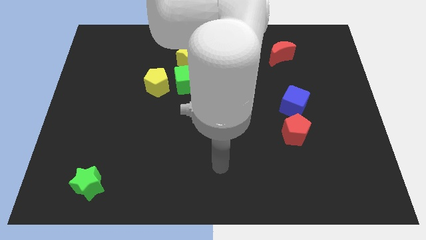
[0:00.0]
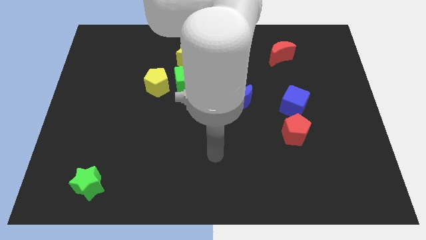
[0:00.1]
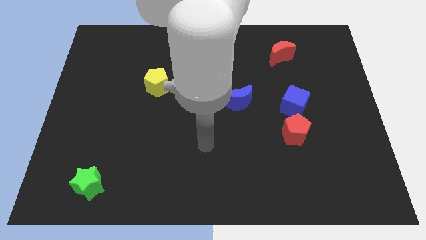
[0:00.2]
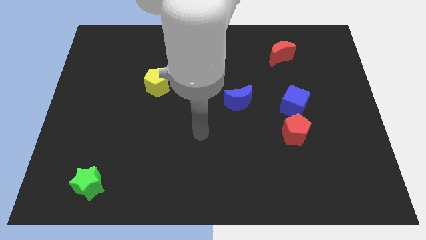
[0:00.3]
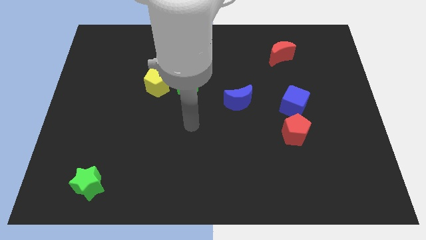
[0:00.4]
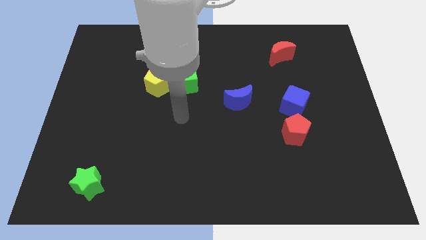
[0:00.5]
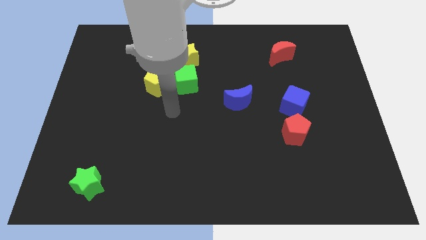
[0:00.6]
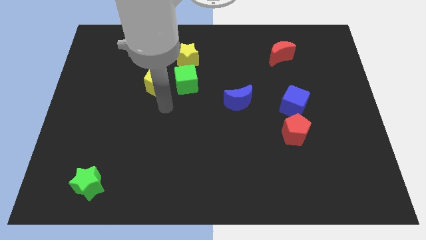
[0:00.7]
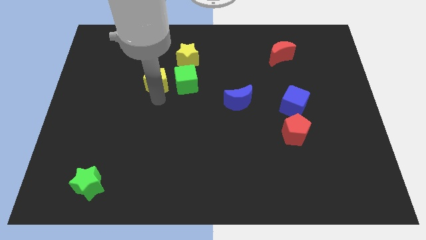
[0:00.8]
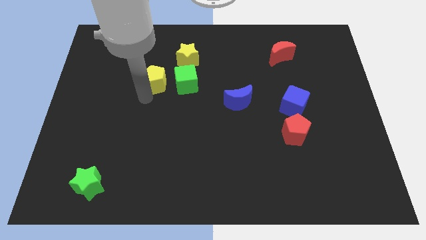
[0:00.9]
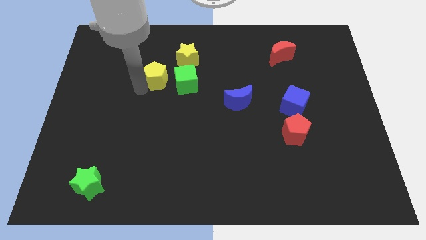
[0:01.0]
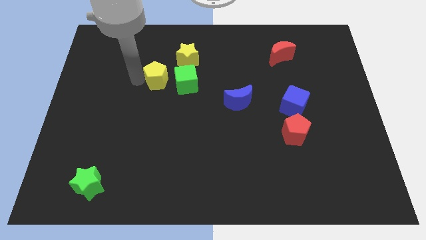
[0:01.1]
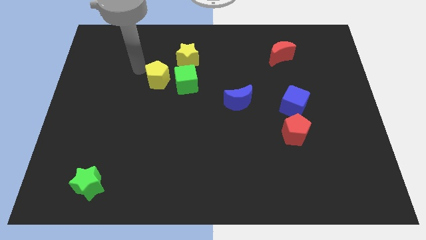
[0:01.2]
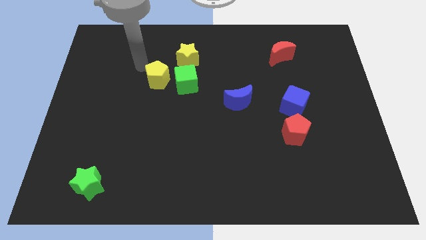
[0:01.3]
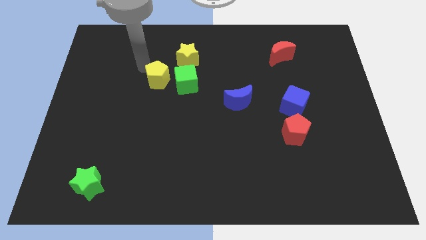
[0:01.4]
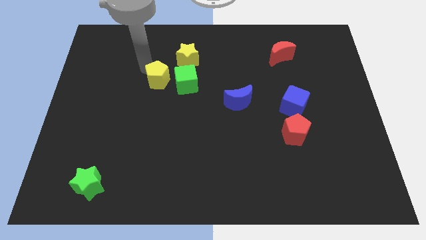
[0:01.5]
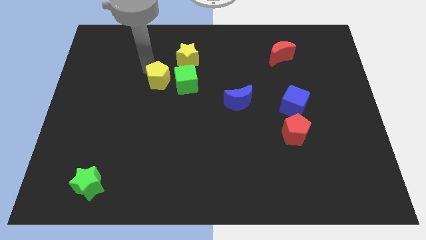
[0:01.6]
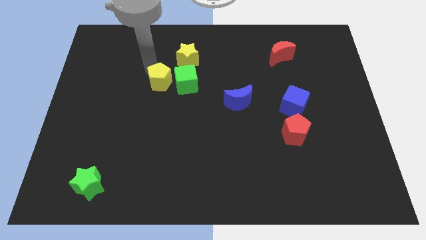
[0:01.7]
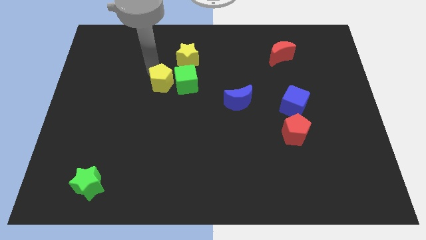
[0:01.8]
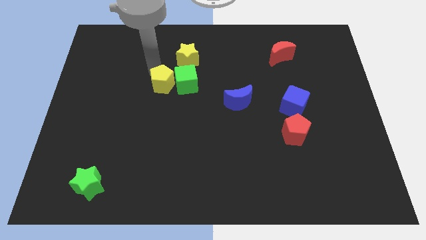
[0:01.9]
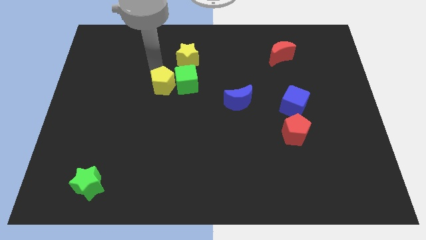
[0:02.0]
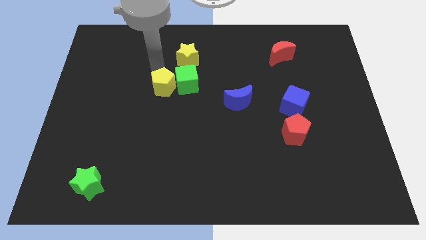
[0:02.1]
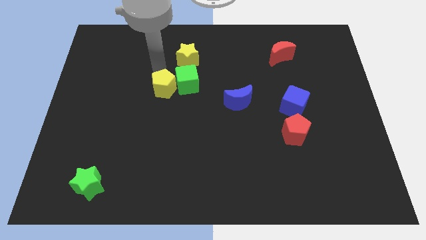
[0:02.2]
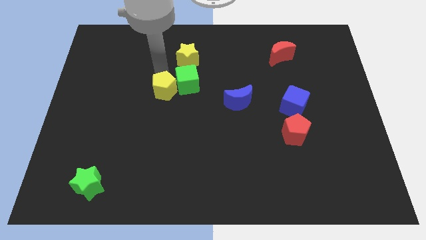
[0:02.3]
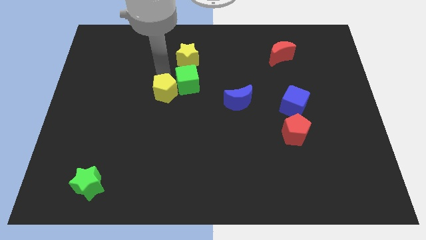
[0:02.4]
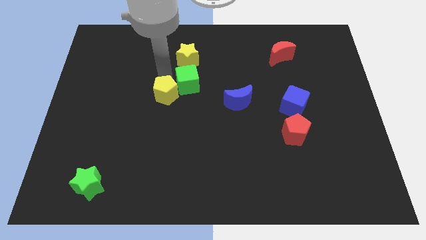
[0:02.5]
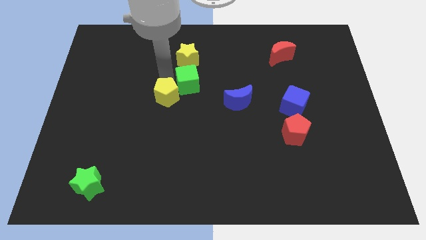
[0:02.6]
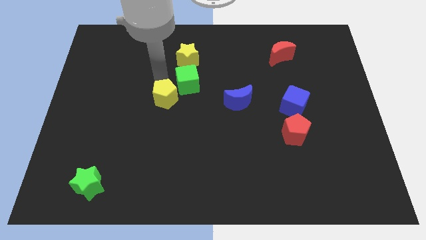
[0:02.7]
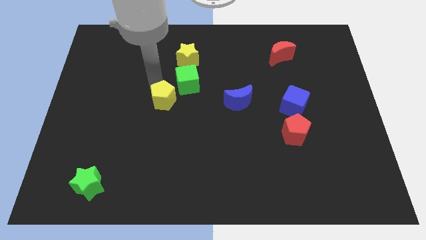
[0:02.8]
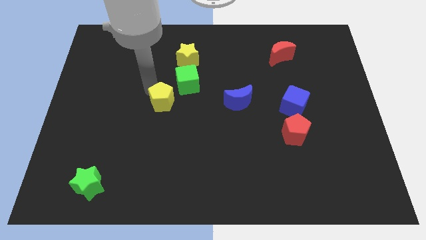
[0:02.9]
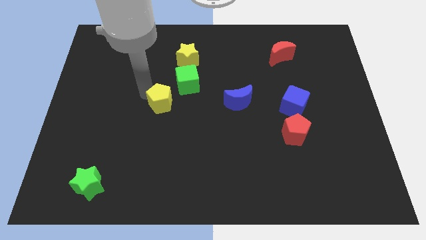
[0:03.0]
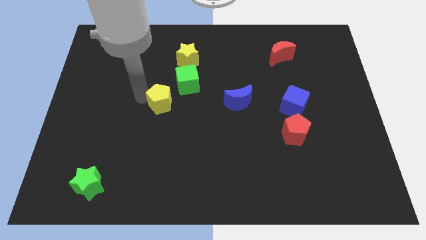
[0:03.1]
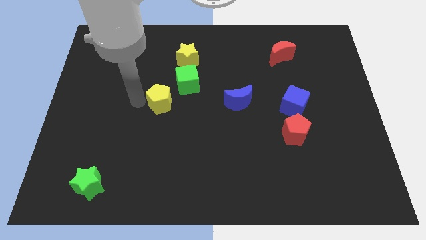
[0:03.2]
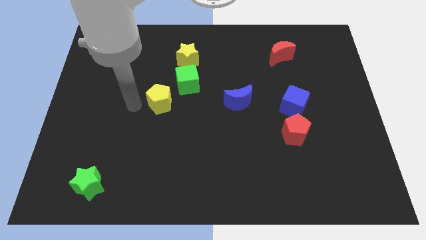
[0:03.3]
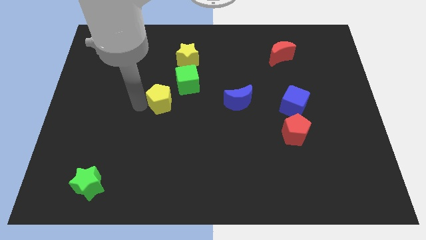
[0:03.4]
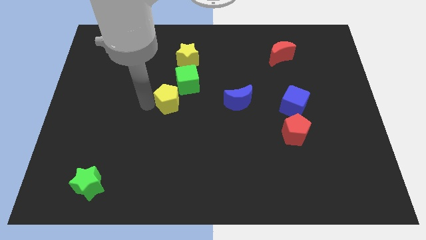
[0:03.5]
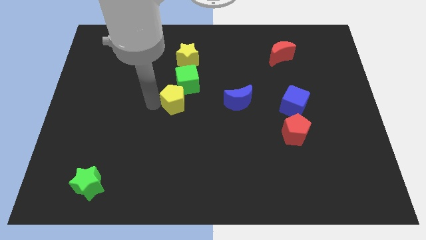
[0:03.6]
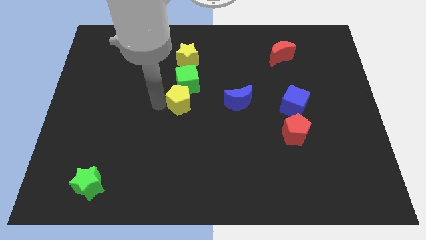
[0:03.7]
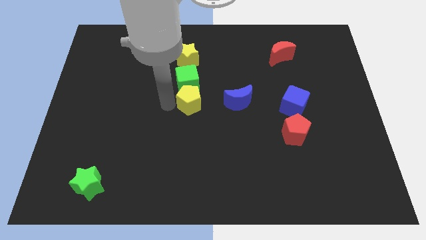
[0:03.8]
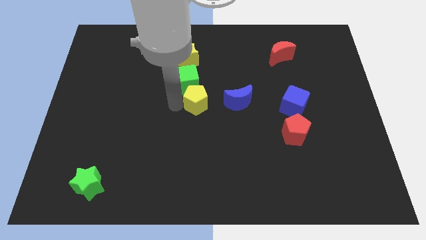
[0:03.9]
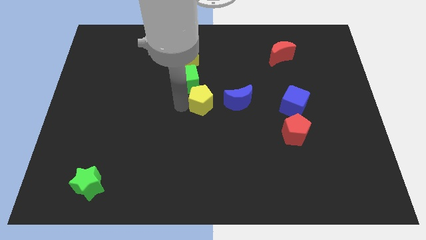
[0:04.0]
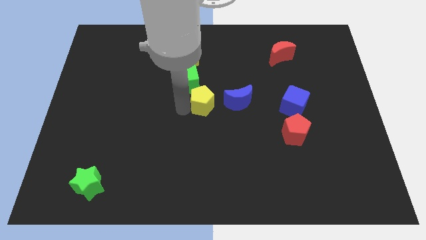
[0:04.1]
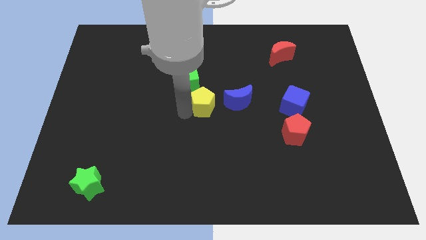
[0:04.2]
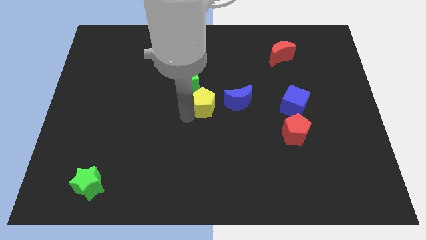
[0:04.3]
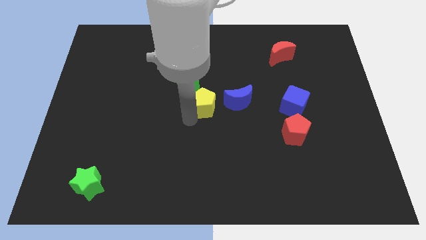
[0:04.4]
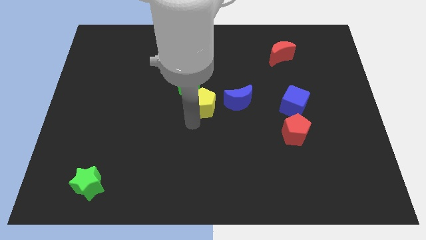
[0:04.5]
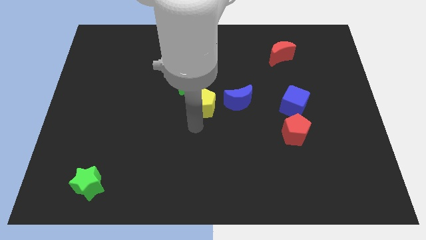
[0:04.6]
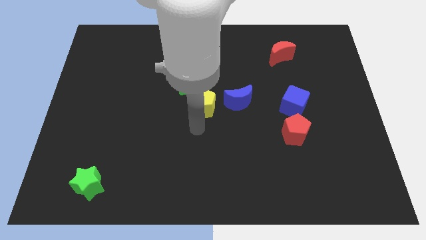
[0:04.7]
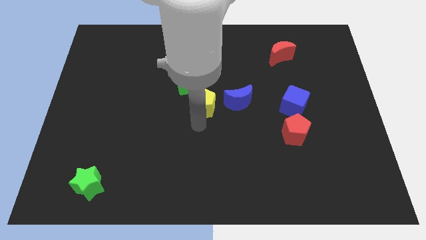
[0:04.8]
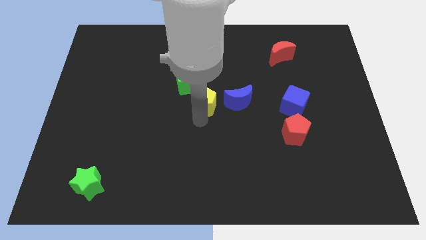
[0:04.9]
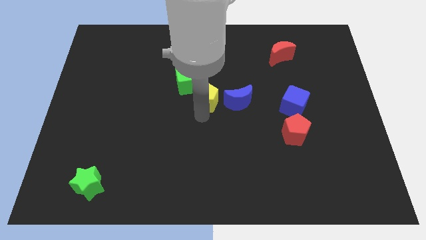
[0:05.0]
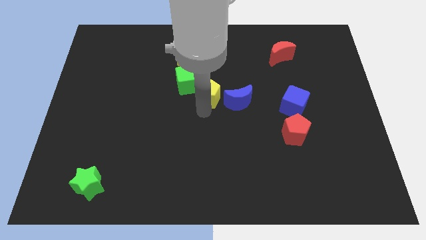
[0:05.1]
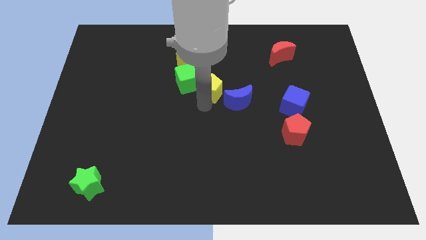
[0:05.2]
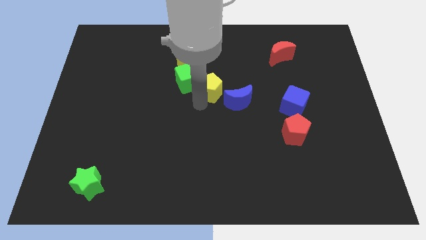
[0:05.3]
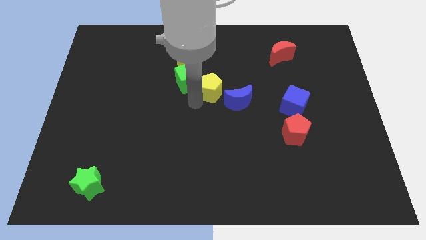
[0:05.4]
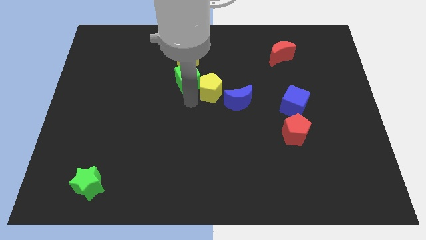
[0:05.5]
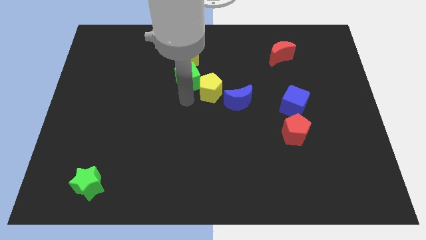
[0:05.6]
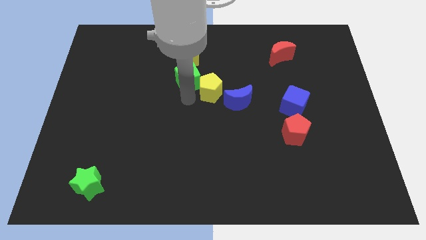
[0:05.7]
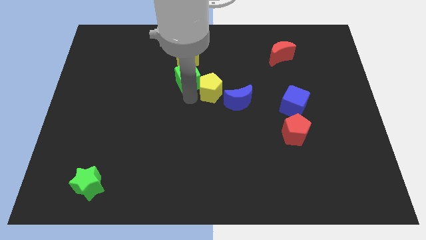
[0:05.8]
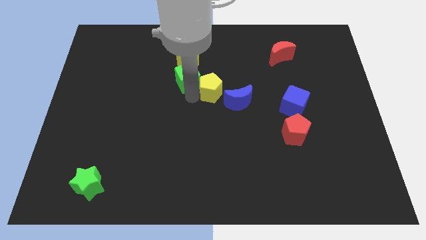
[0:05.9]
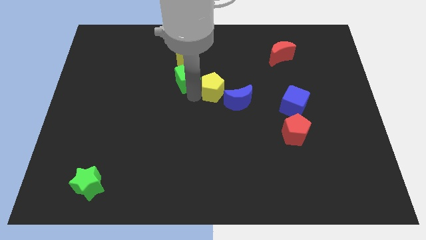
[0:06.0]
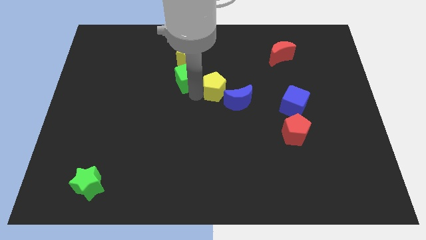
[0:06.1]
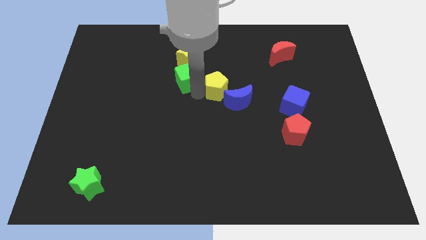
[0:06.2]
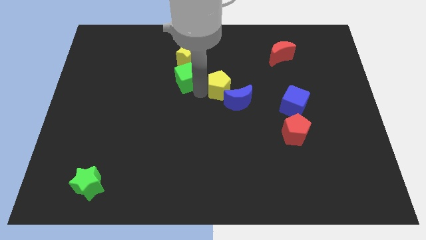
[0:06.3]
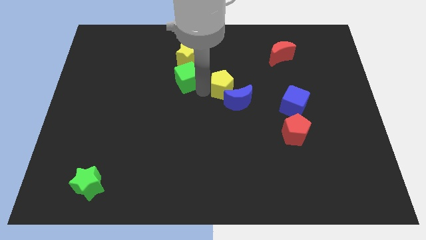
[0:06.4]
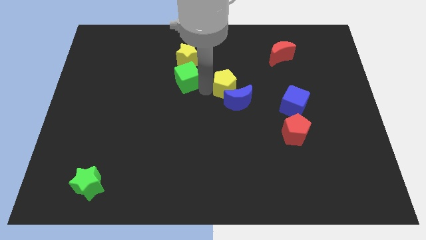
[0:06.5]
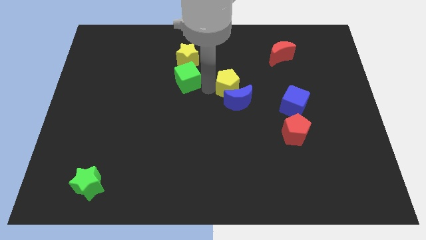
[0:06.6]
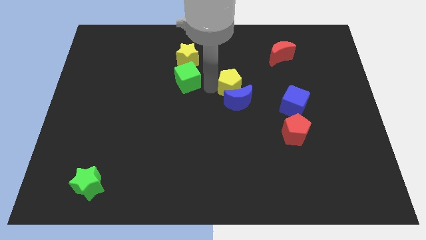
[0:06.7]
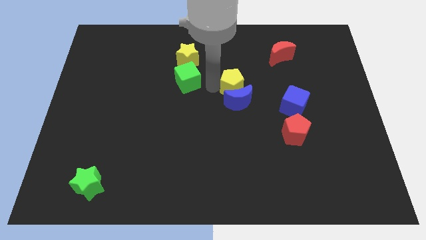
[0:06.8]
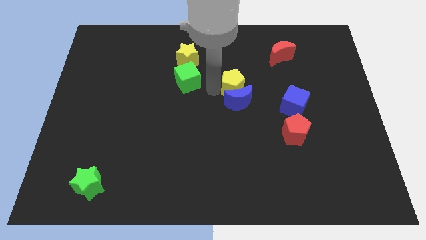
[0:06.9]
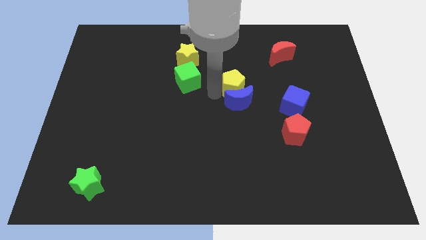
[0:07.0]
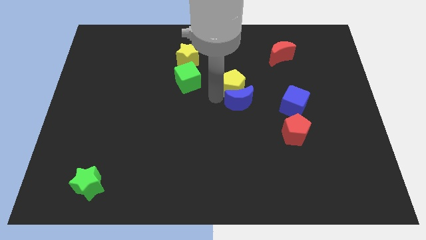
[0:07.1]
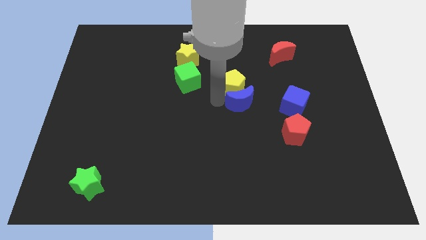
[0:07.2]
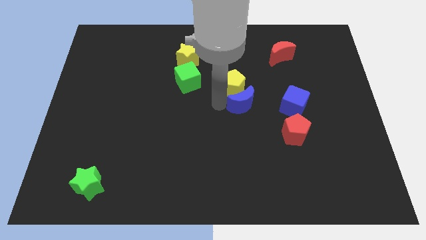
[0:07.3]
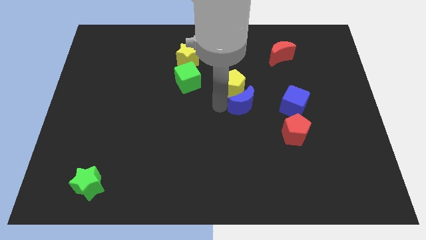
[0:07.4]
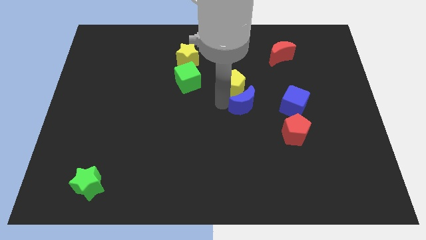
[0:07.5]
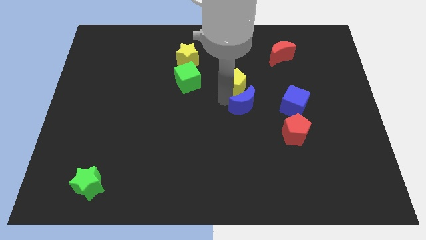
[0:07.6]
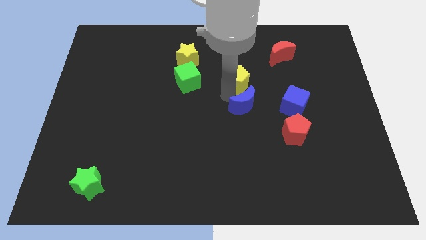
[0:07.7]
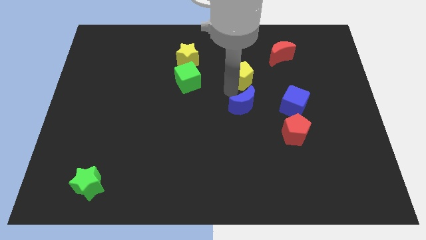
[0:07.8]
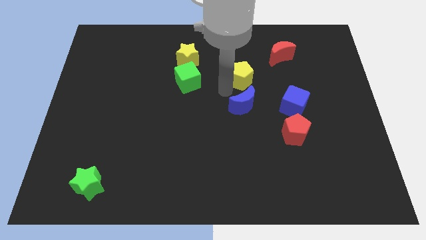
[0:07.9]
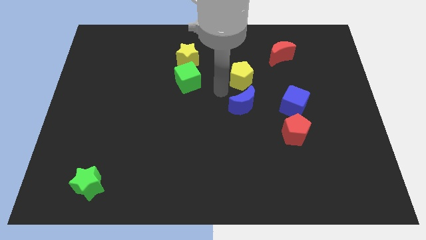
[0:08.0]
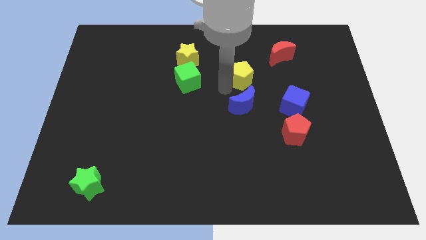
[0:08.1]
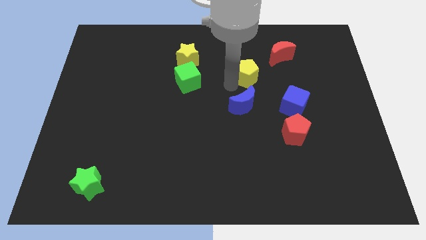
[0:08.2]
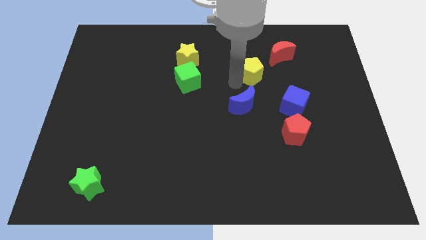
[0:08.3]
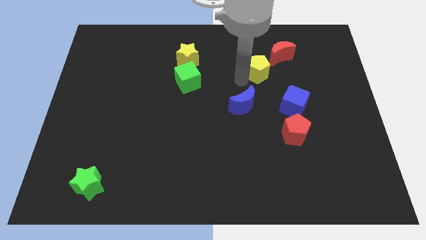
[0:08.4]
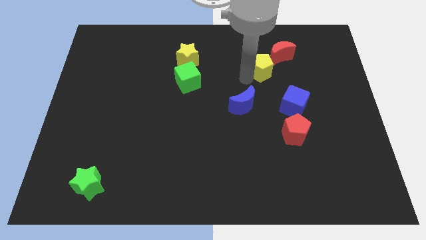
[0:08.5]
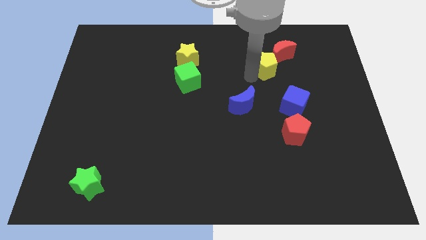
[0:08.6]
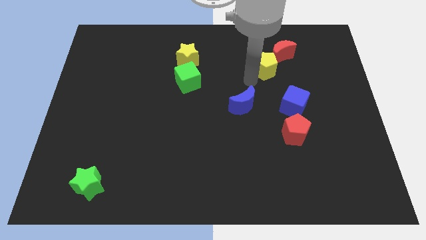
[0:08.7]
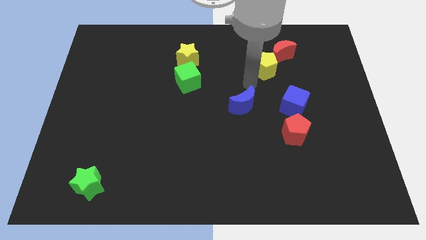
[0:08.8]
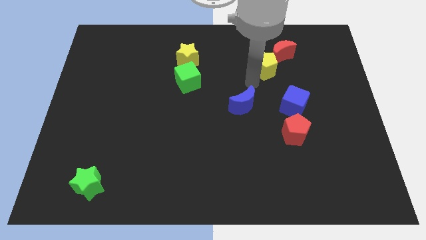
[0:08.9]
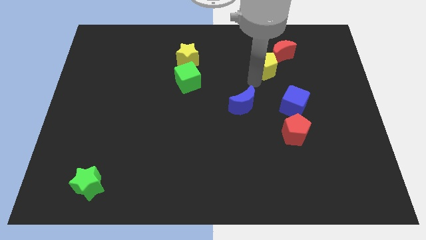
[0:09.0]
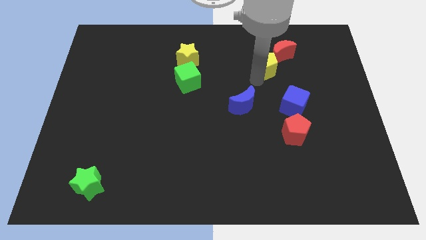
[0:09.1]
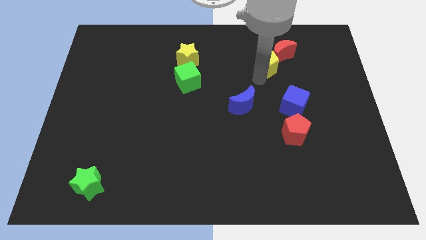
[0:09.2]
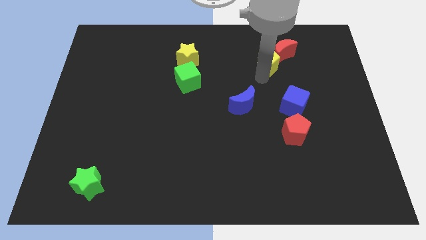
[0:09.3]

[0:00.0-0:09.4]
move the yellow pentagon next to the red moon
